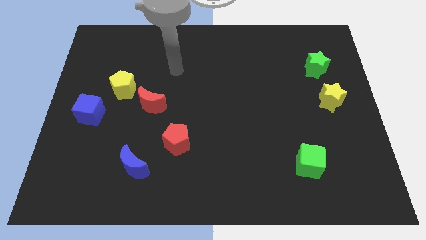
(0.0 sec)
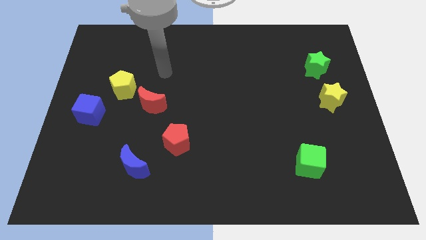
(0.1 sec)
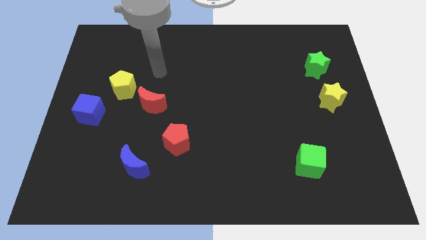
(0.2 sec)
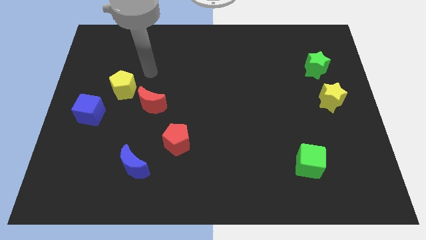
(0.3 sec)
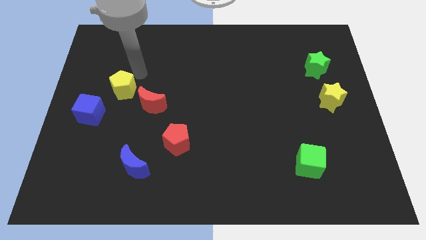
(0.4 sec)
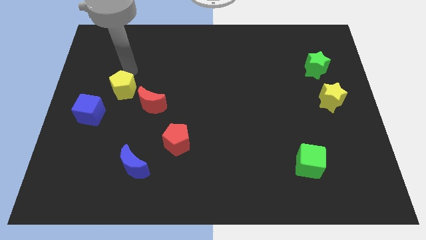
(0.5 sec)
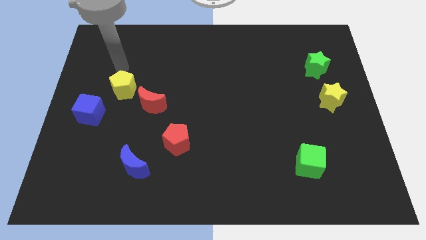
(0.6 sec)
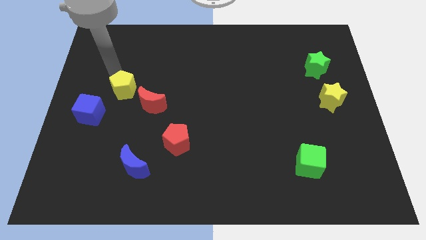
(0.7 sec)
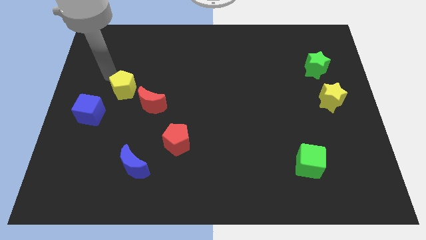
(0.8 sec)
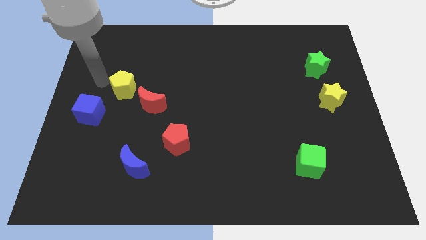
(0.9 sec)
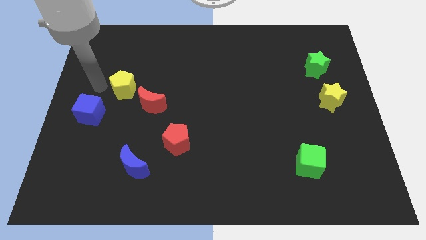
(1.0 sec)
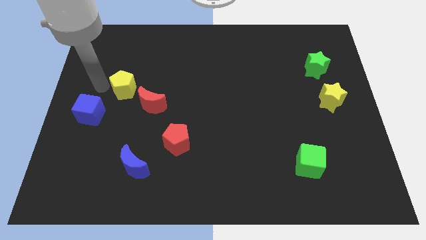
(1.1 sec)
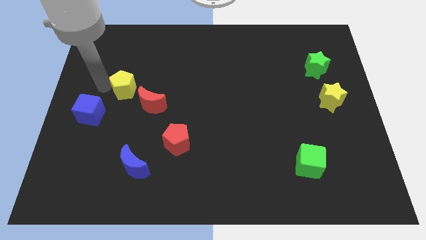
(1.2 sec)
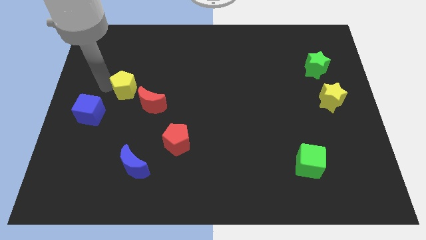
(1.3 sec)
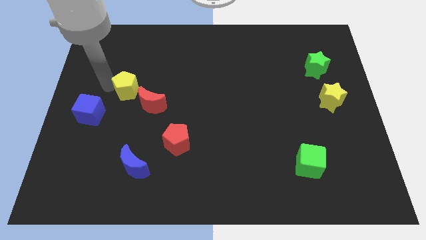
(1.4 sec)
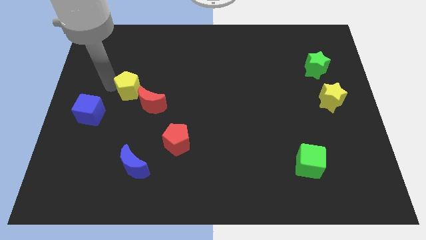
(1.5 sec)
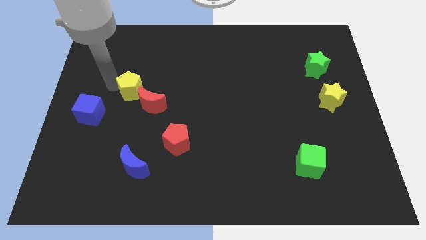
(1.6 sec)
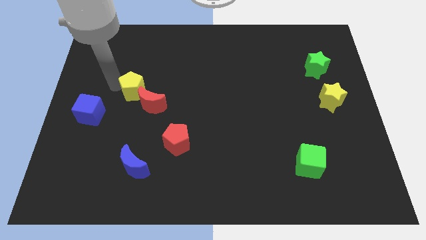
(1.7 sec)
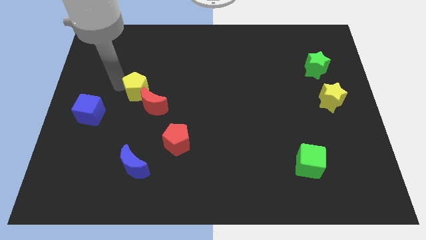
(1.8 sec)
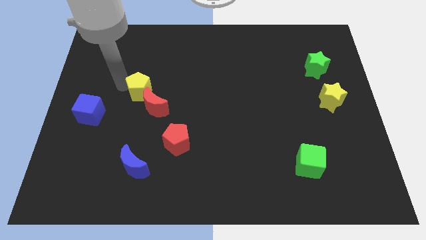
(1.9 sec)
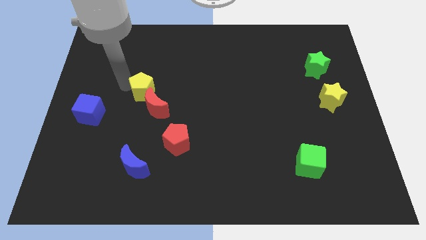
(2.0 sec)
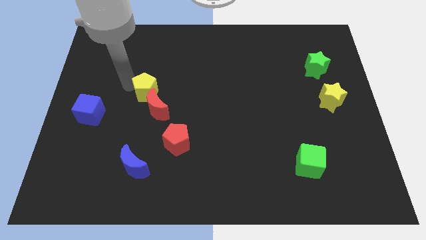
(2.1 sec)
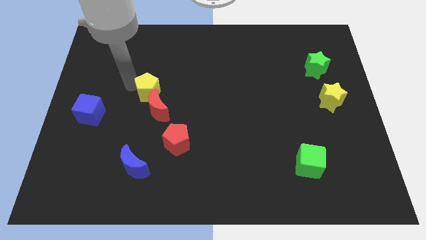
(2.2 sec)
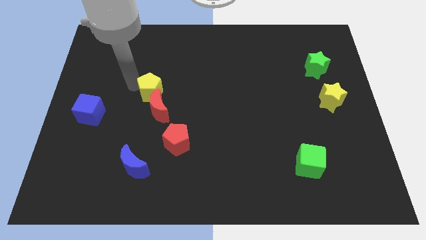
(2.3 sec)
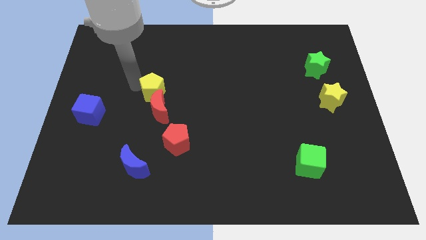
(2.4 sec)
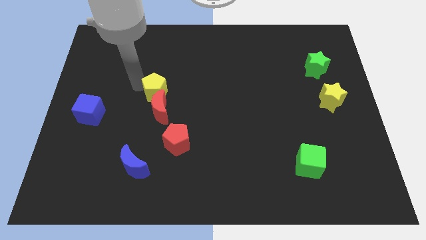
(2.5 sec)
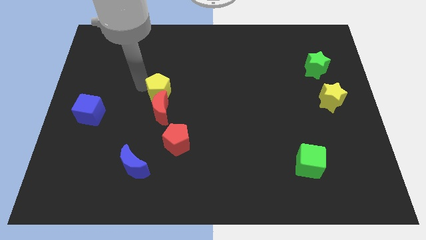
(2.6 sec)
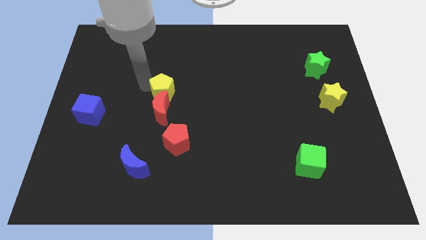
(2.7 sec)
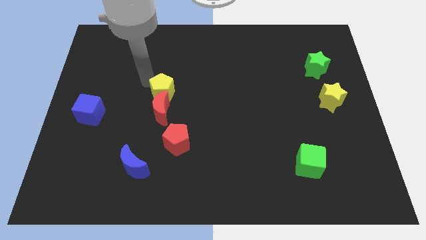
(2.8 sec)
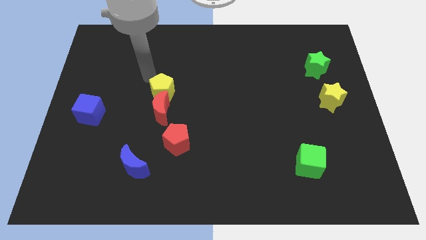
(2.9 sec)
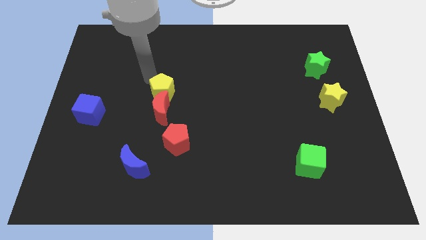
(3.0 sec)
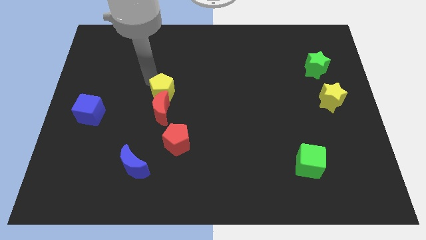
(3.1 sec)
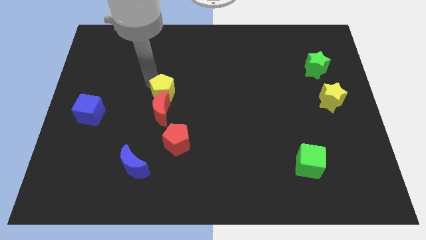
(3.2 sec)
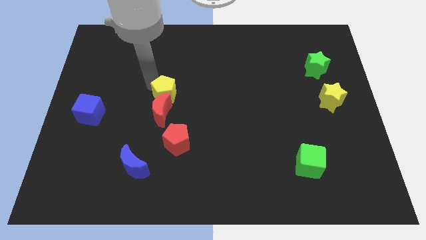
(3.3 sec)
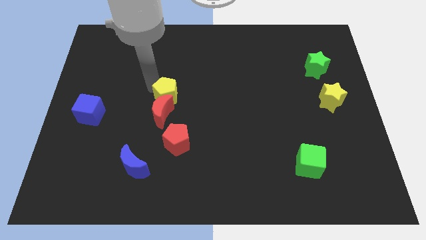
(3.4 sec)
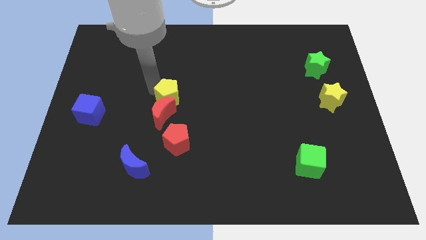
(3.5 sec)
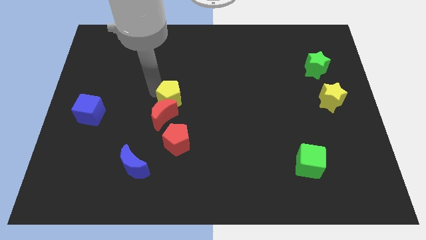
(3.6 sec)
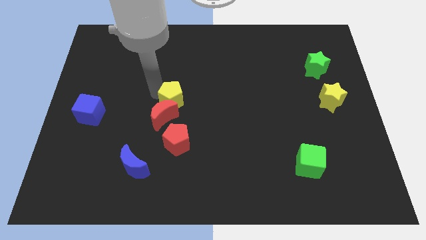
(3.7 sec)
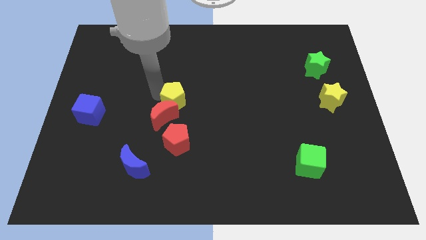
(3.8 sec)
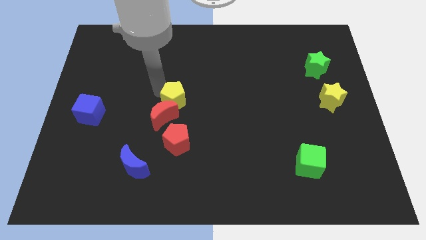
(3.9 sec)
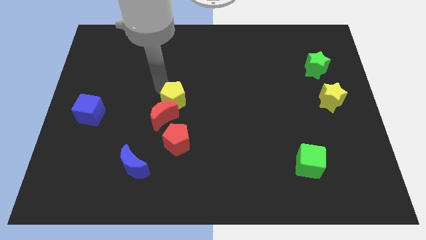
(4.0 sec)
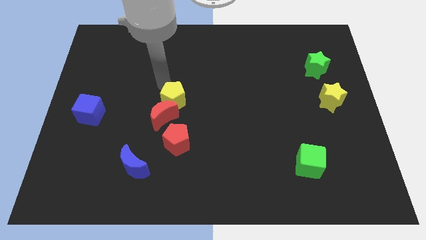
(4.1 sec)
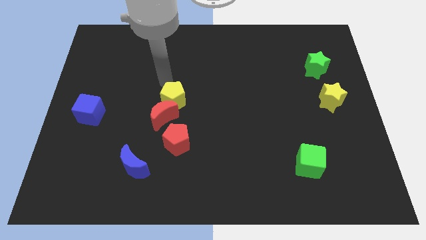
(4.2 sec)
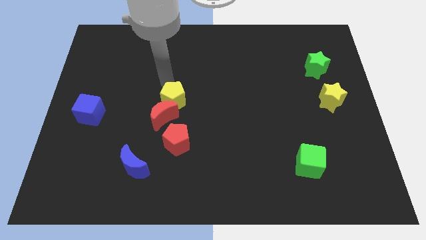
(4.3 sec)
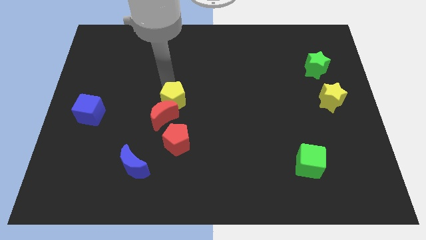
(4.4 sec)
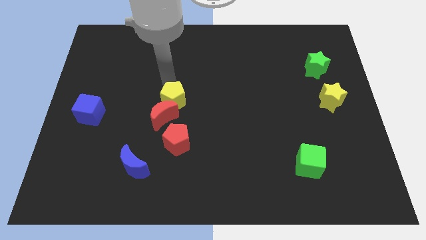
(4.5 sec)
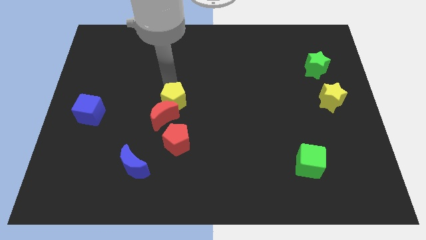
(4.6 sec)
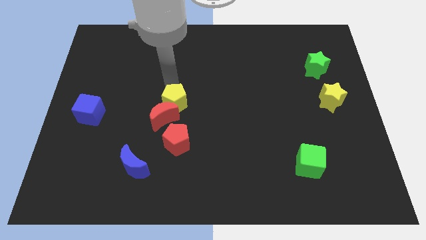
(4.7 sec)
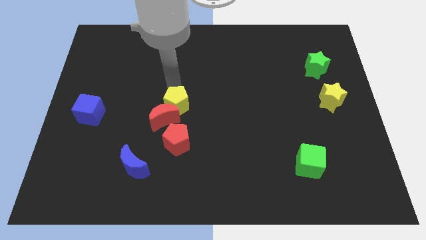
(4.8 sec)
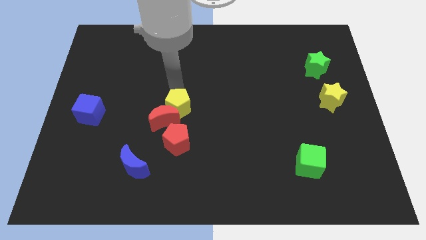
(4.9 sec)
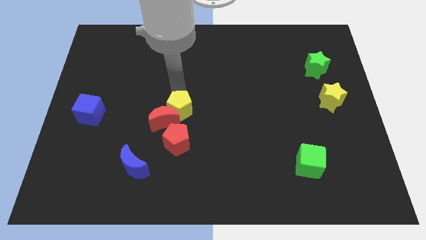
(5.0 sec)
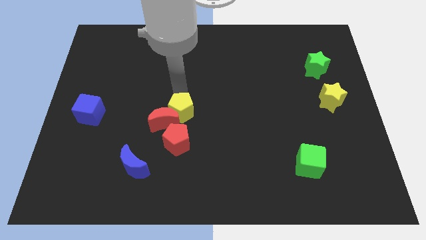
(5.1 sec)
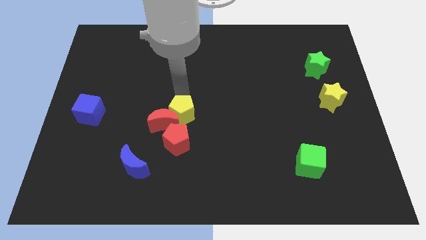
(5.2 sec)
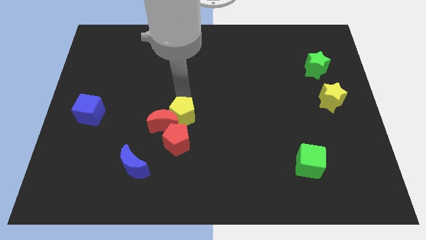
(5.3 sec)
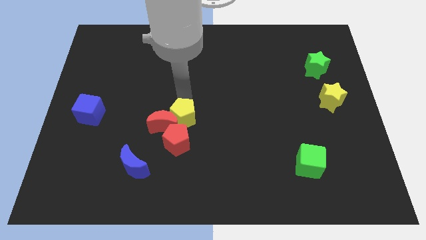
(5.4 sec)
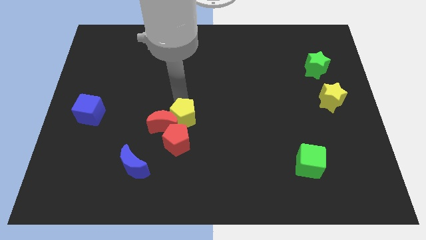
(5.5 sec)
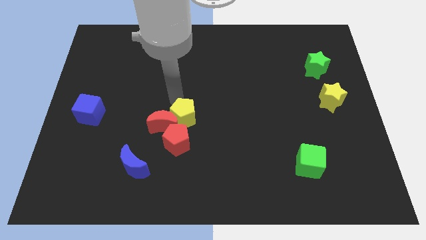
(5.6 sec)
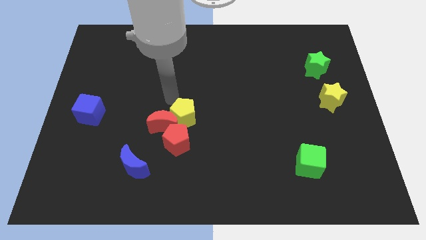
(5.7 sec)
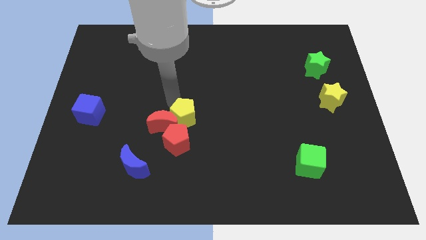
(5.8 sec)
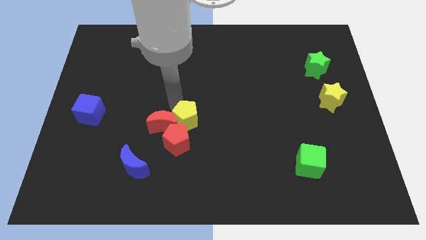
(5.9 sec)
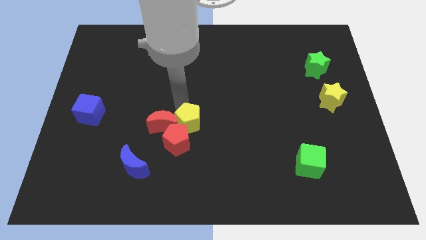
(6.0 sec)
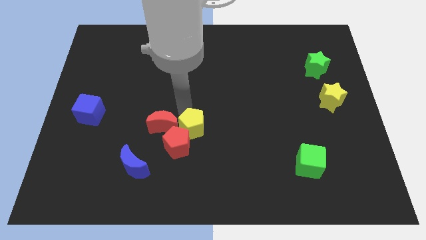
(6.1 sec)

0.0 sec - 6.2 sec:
push the yellow pentagon diagonally down and to the right

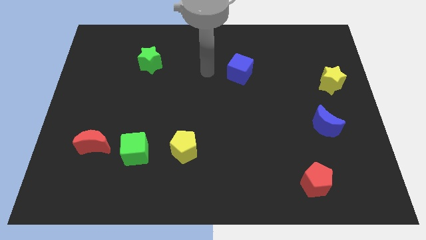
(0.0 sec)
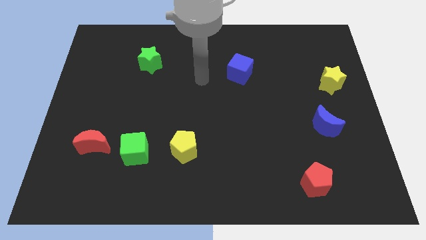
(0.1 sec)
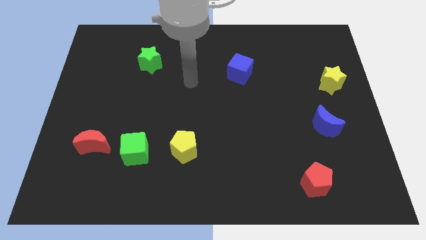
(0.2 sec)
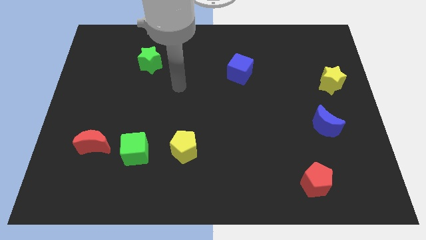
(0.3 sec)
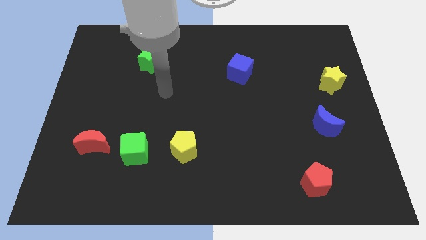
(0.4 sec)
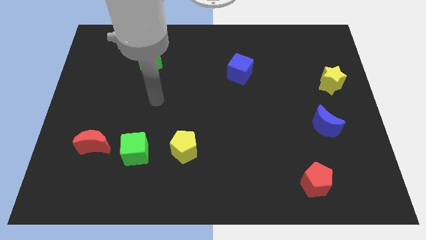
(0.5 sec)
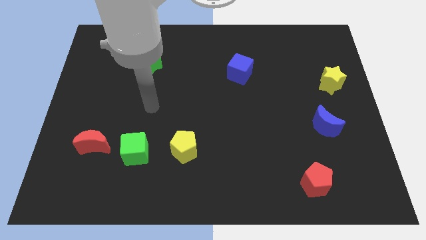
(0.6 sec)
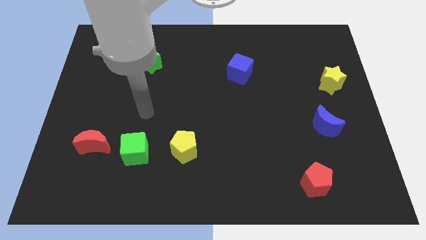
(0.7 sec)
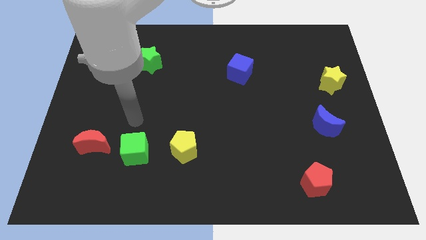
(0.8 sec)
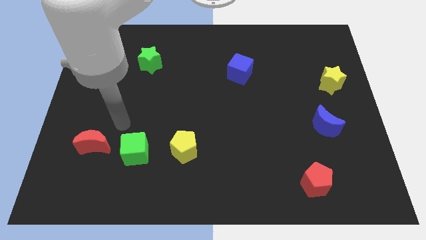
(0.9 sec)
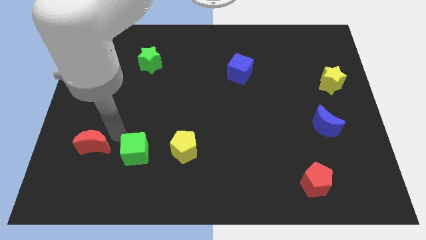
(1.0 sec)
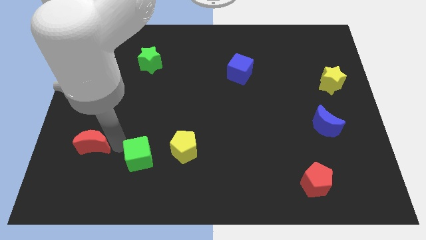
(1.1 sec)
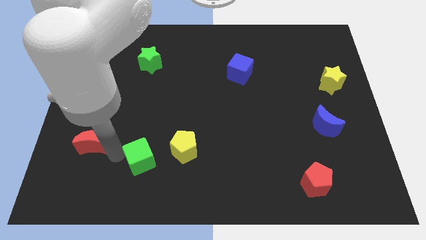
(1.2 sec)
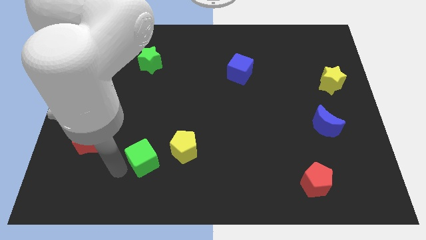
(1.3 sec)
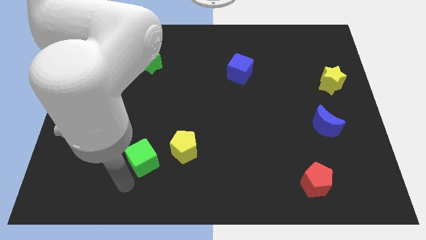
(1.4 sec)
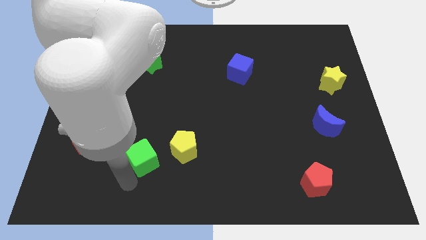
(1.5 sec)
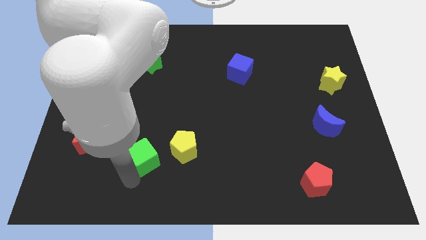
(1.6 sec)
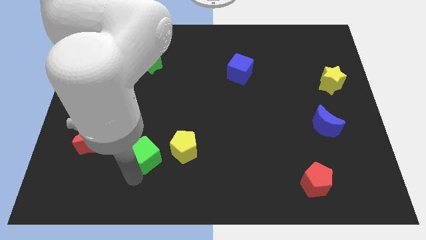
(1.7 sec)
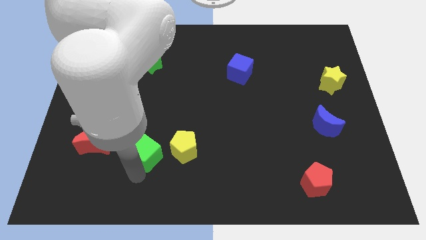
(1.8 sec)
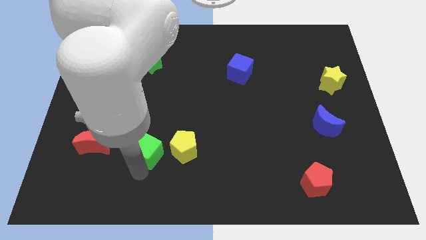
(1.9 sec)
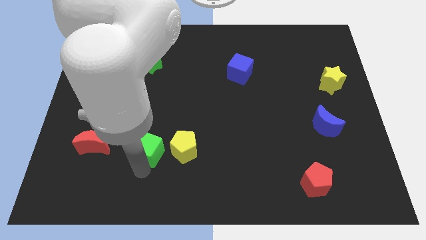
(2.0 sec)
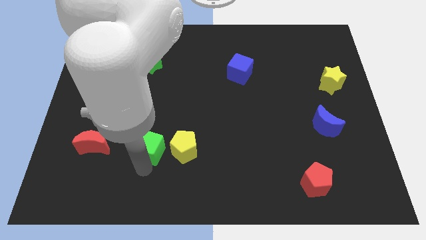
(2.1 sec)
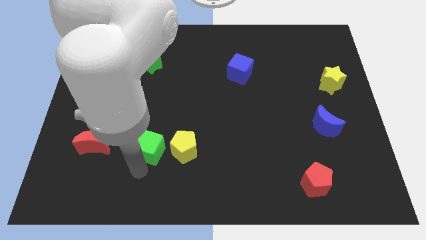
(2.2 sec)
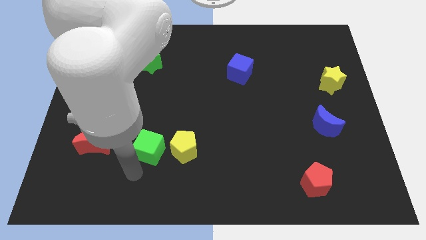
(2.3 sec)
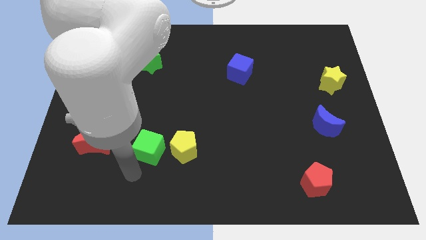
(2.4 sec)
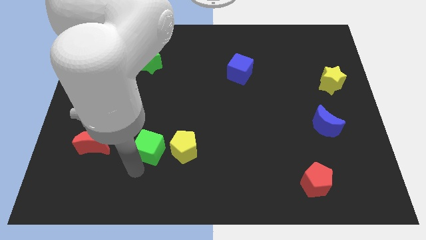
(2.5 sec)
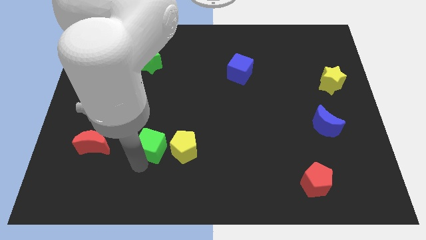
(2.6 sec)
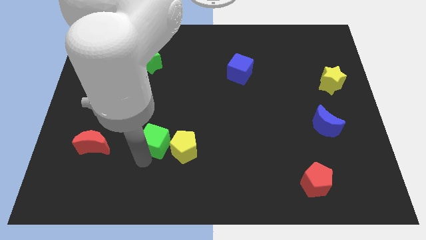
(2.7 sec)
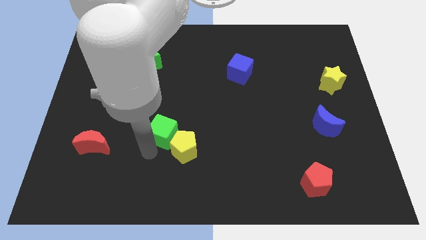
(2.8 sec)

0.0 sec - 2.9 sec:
slightly move the green cube diagonally up and right
